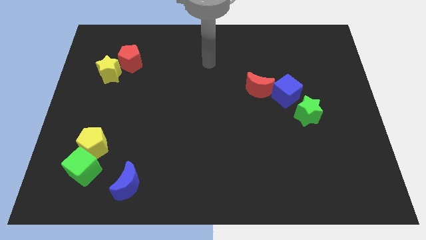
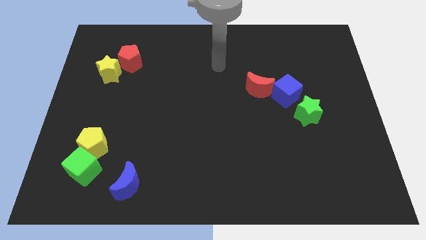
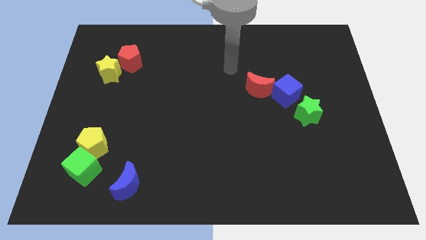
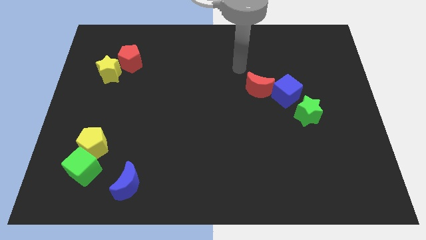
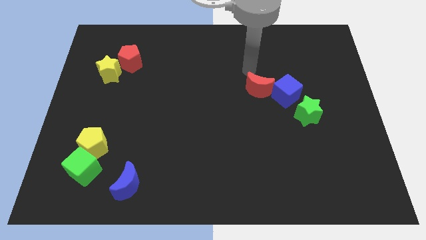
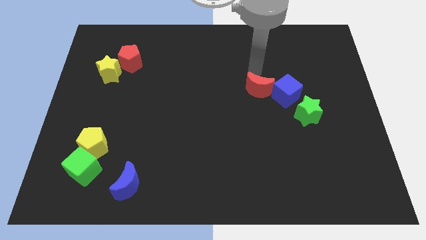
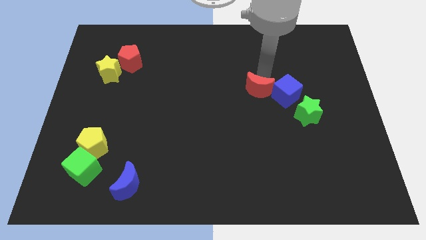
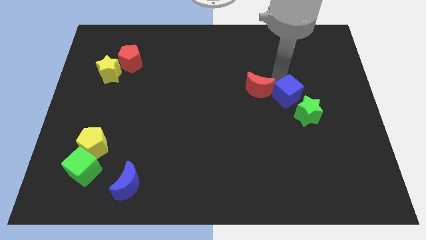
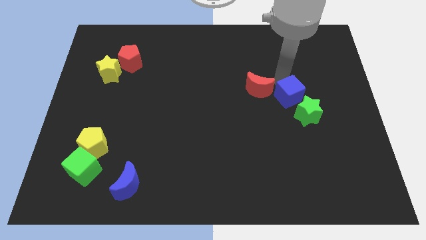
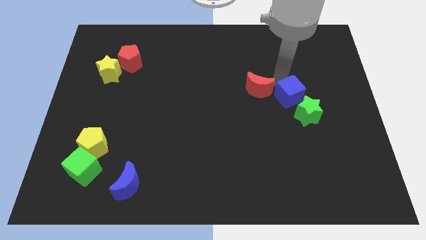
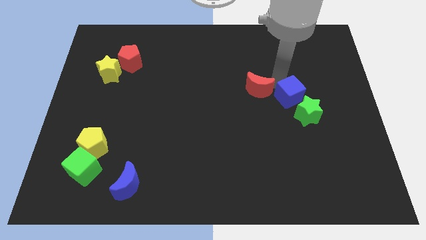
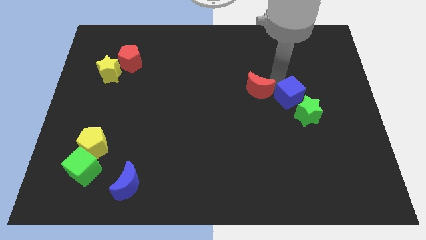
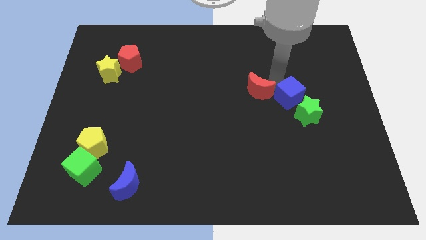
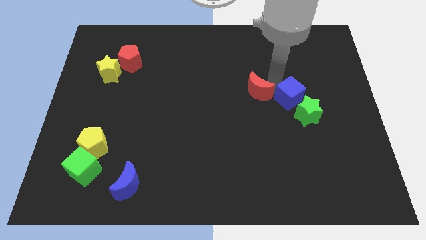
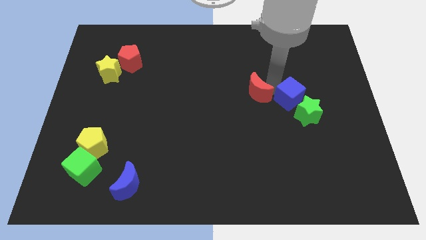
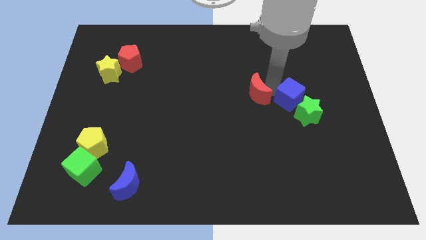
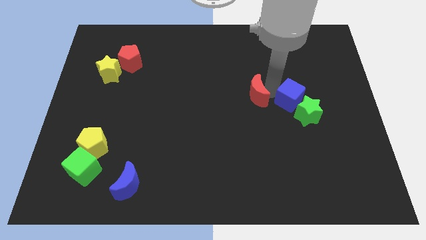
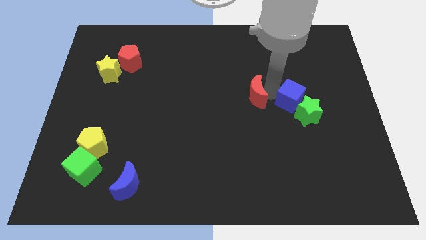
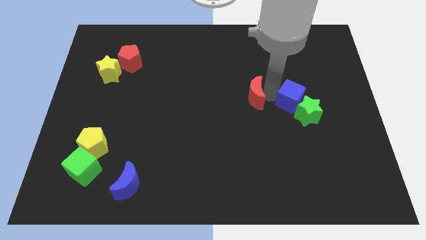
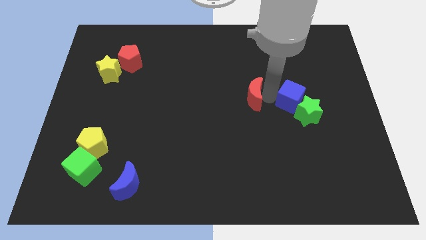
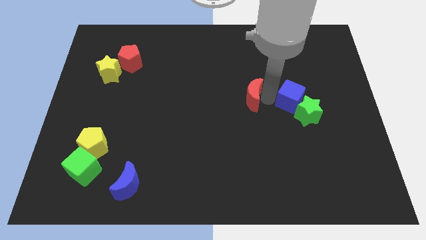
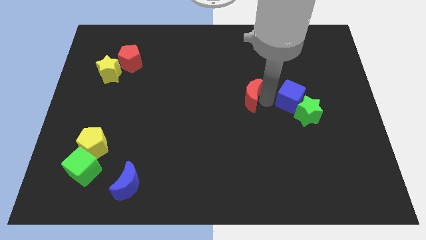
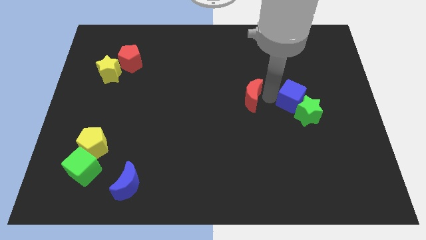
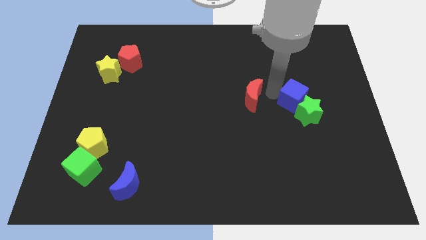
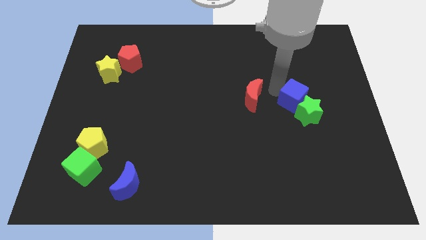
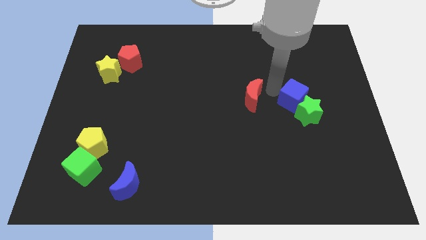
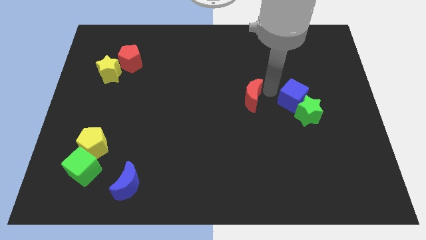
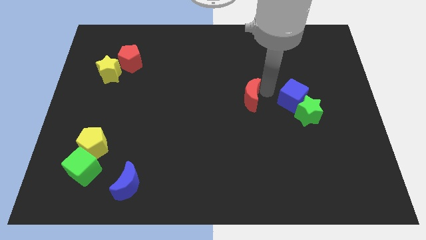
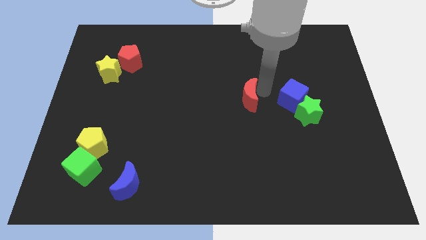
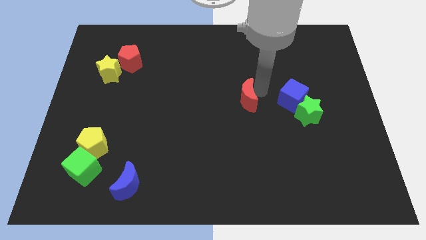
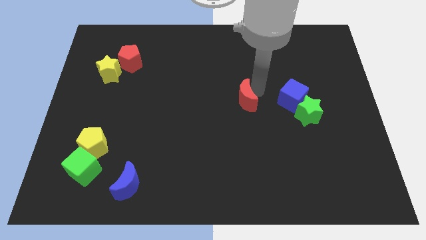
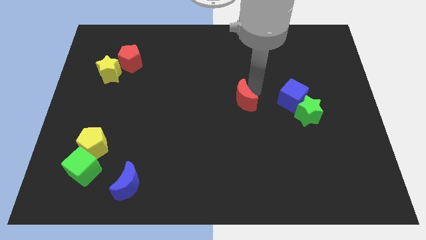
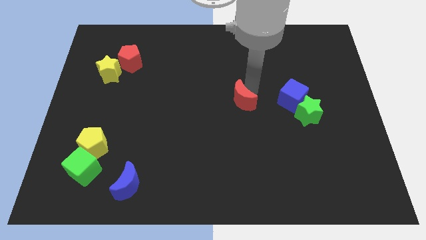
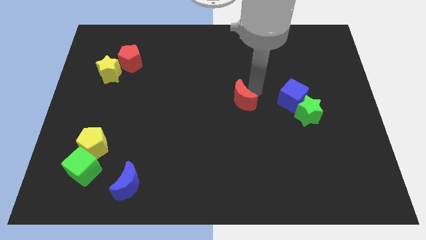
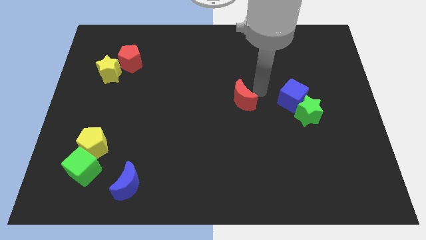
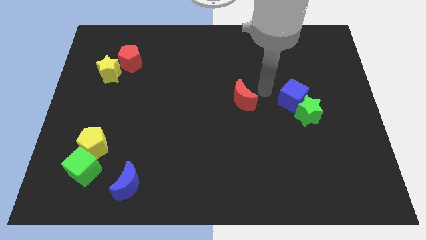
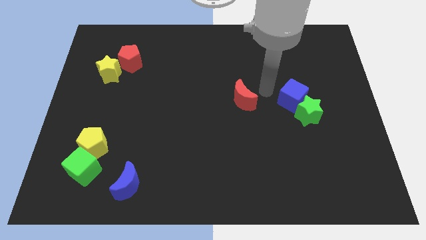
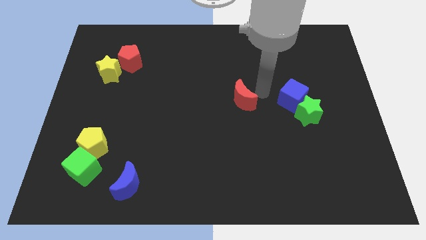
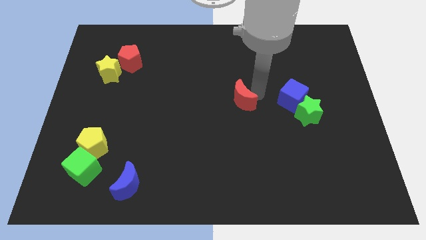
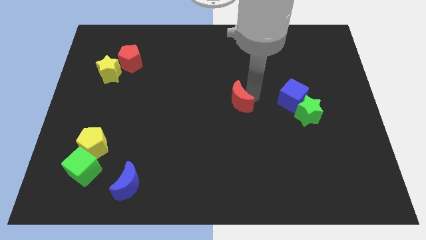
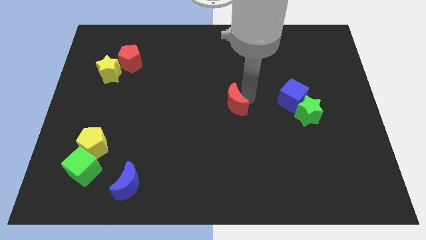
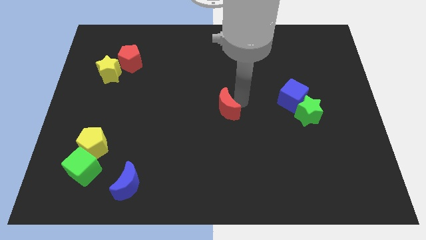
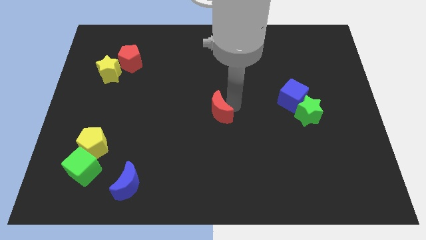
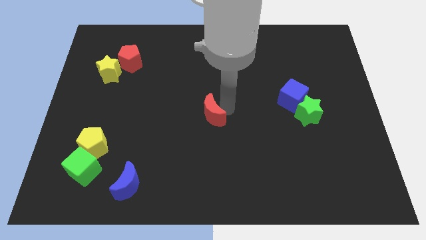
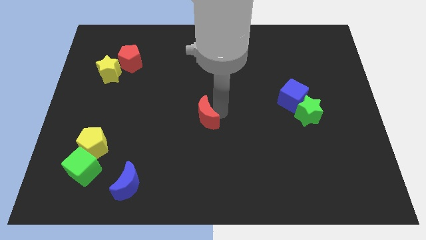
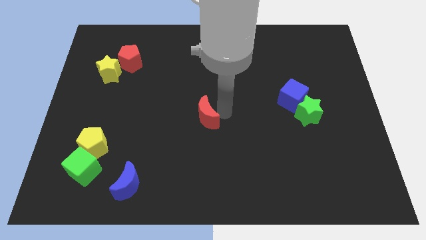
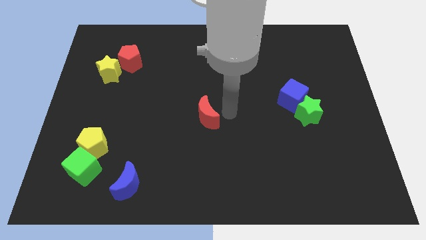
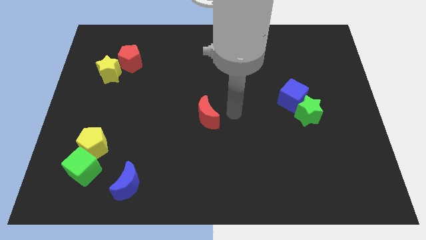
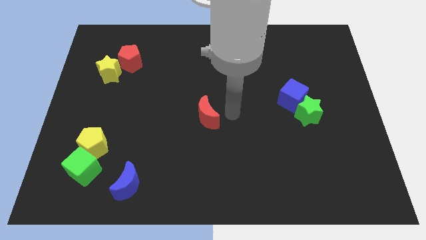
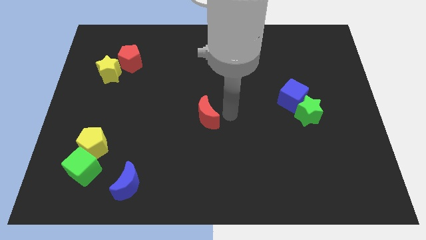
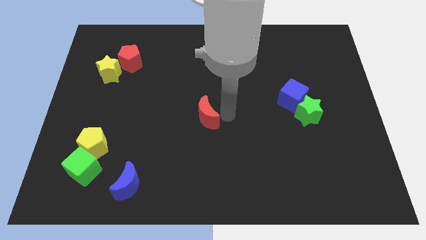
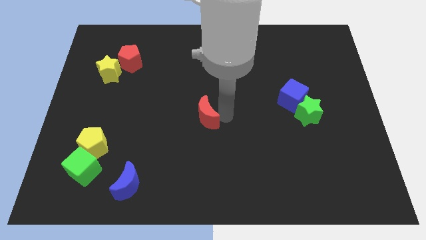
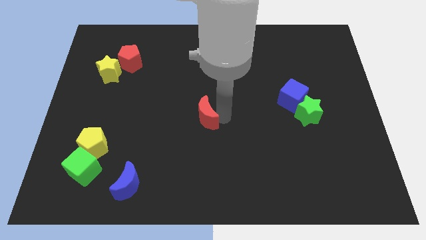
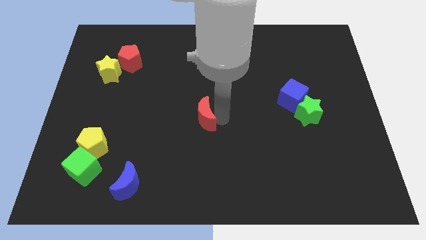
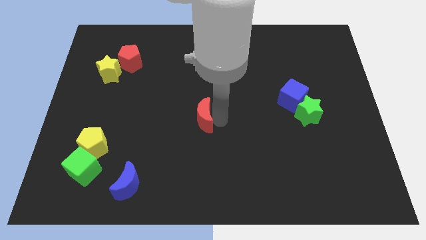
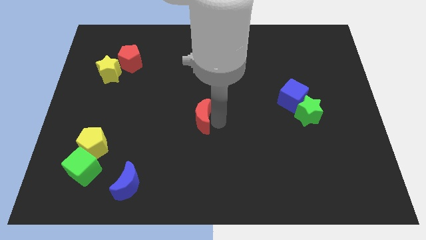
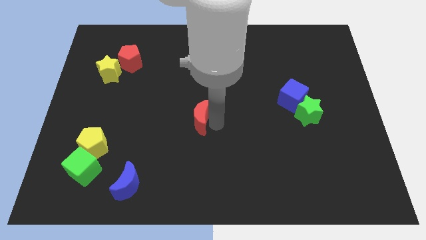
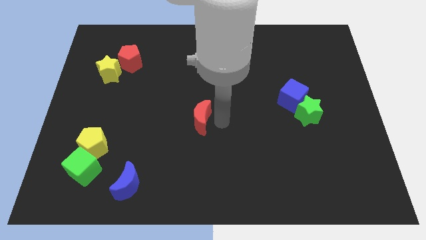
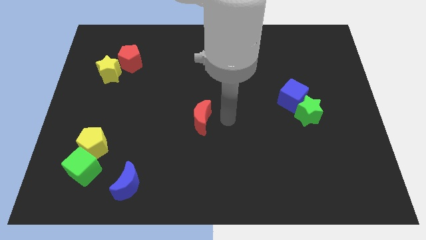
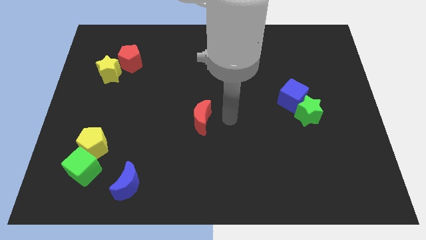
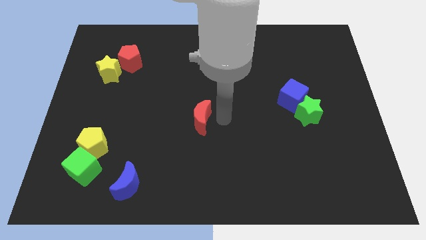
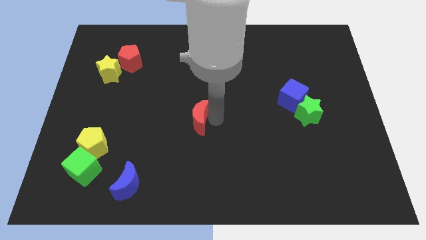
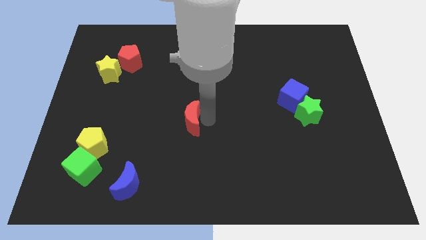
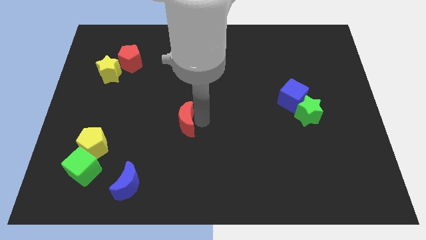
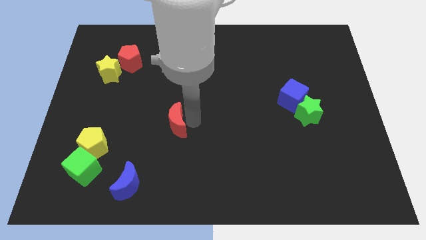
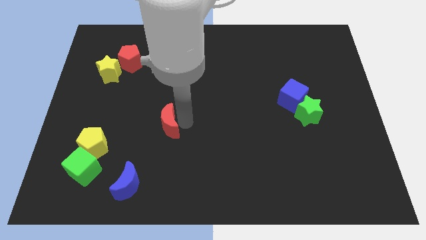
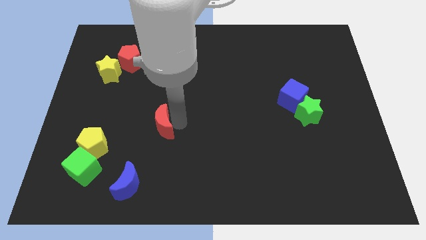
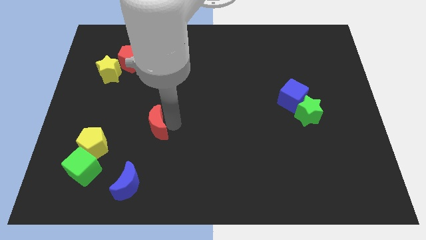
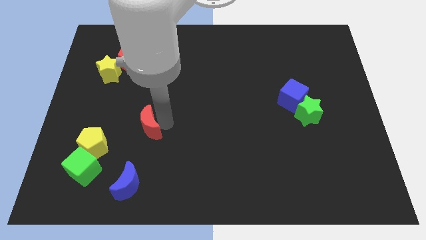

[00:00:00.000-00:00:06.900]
move the red moon above the blue moon

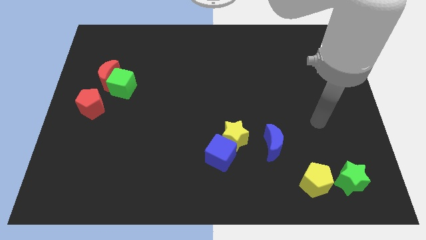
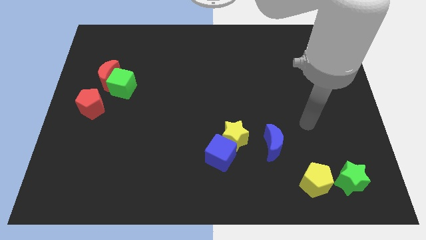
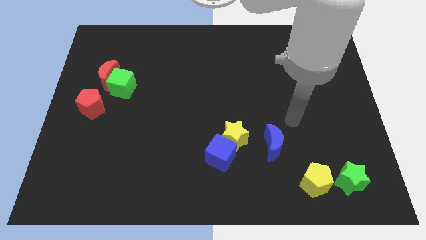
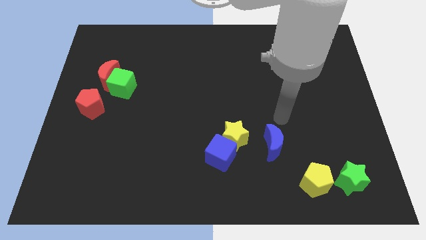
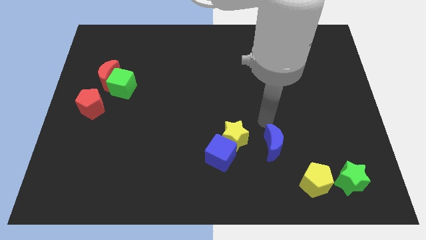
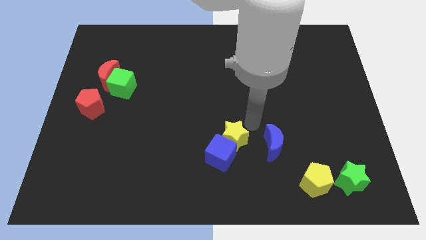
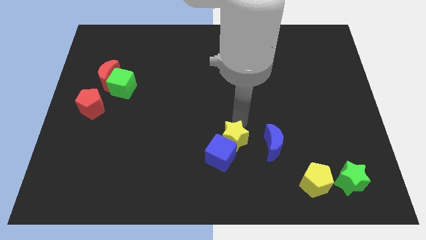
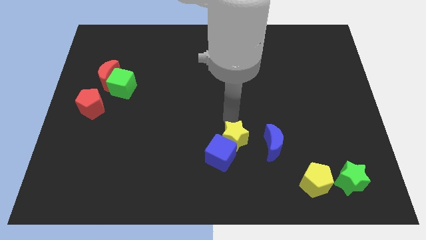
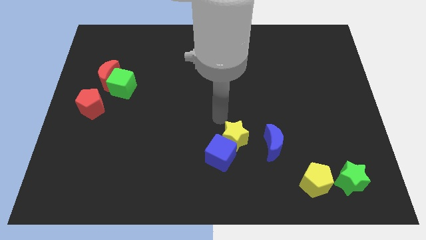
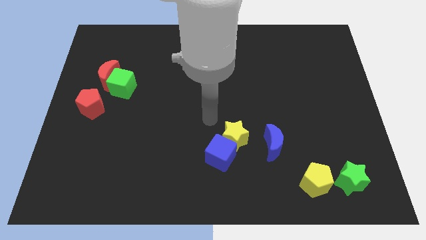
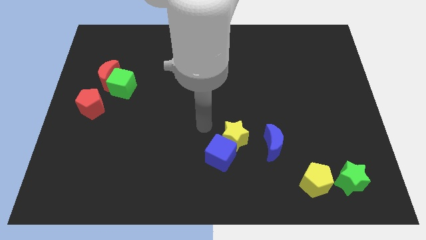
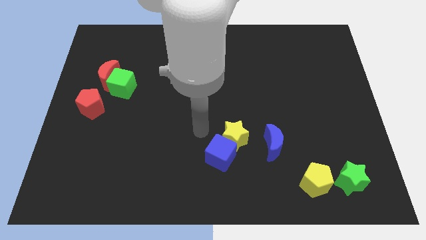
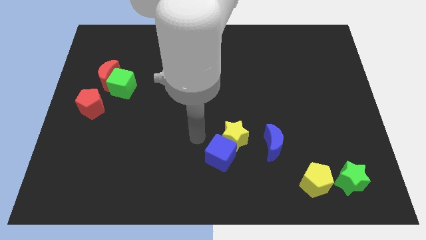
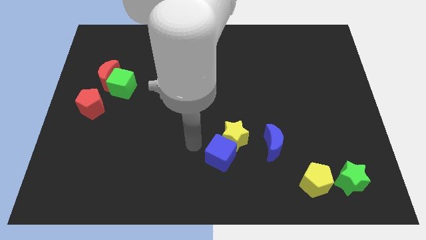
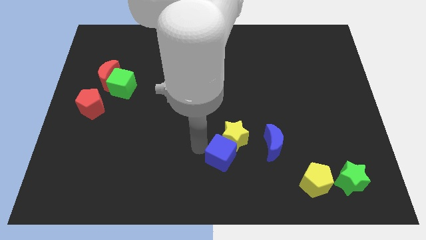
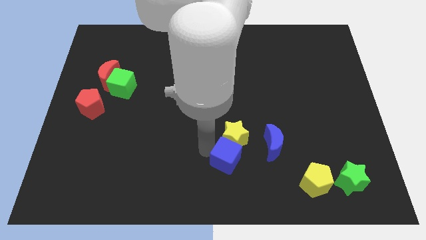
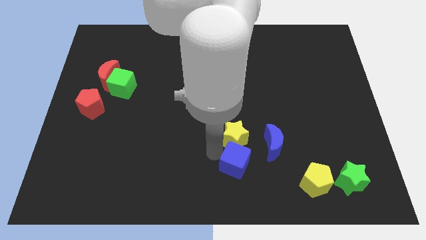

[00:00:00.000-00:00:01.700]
slide the blue cube diagonally down and to the left of the blue moon
